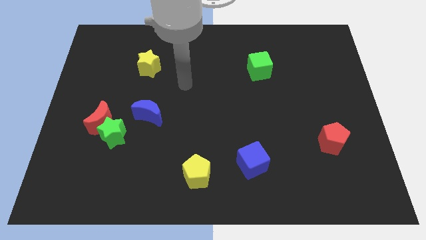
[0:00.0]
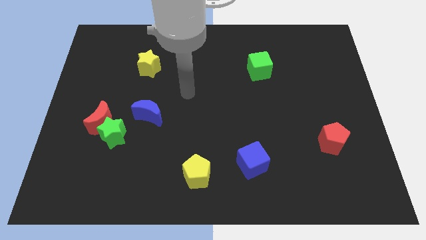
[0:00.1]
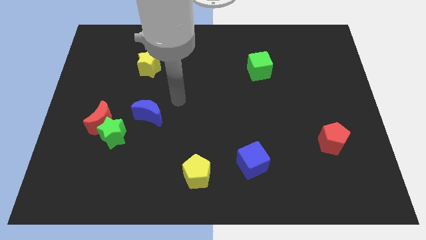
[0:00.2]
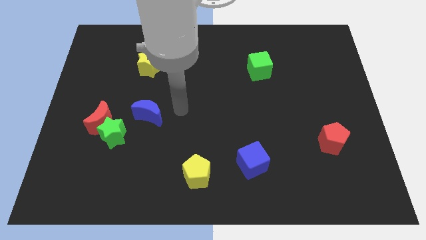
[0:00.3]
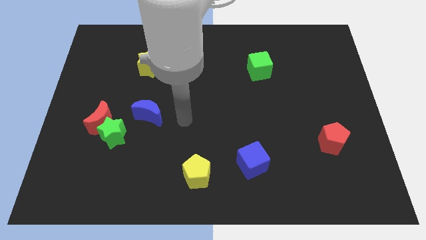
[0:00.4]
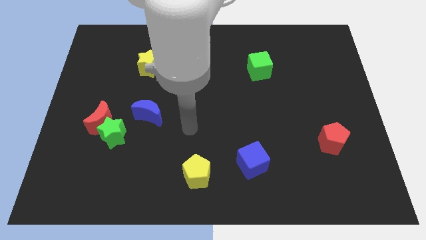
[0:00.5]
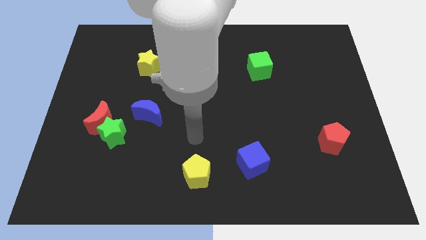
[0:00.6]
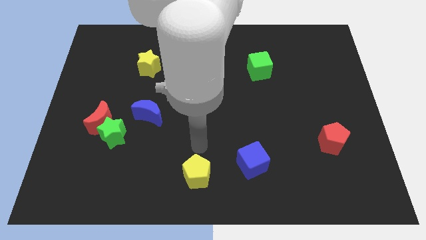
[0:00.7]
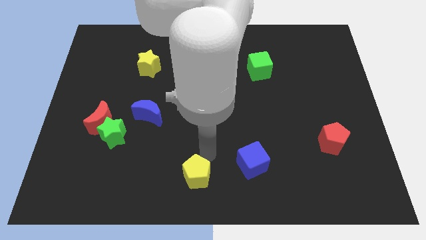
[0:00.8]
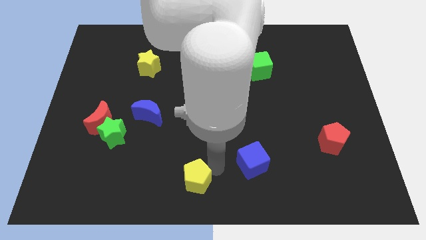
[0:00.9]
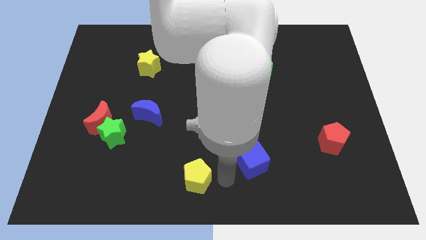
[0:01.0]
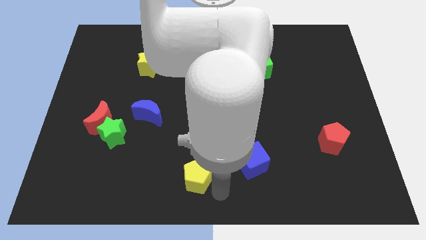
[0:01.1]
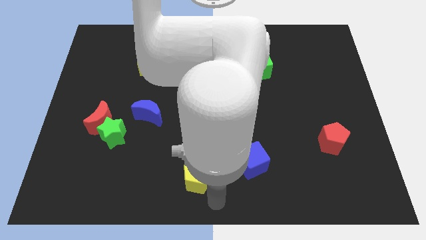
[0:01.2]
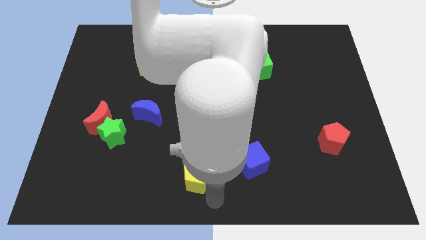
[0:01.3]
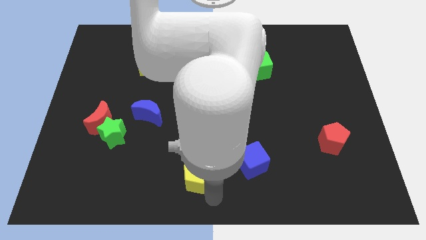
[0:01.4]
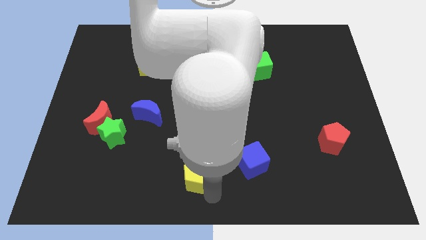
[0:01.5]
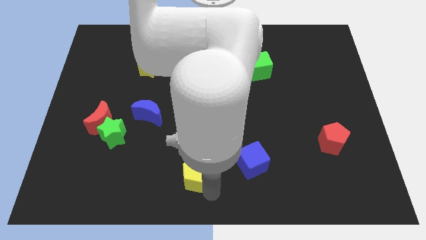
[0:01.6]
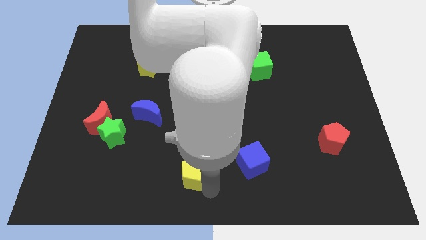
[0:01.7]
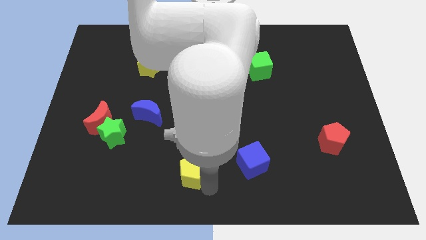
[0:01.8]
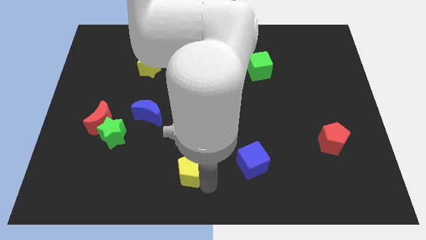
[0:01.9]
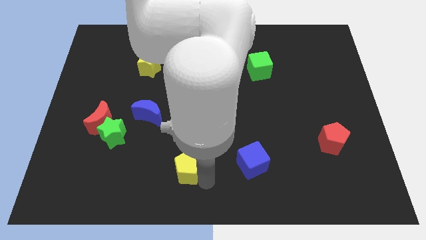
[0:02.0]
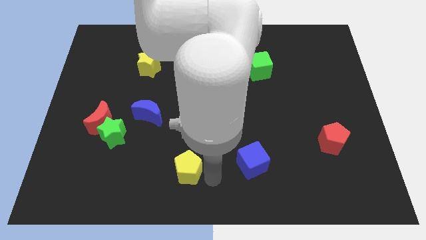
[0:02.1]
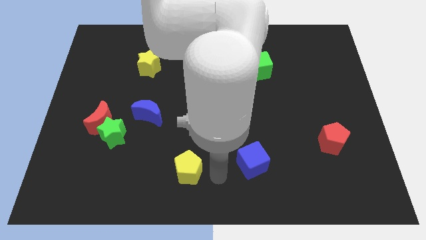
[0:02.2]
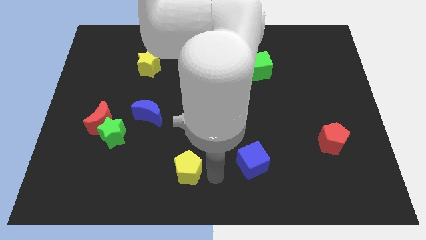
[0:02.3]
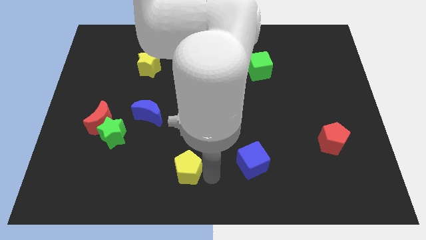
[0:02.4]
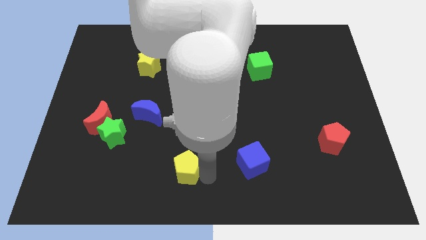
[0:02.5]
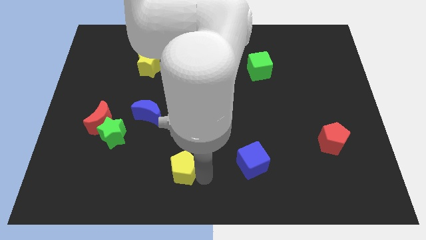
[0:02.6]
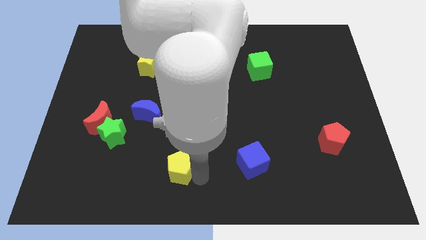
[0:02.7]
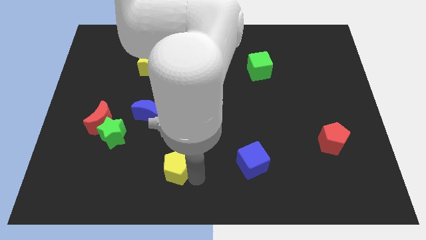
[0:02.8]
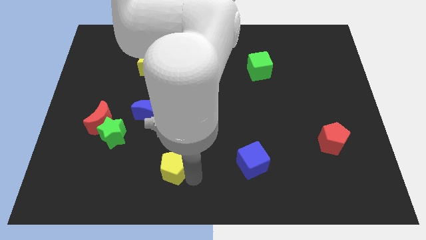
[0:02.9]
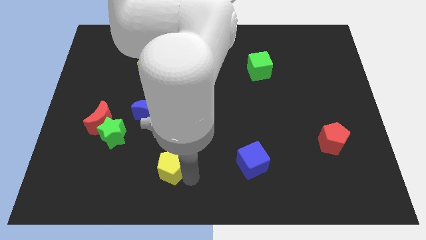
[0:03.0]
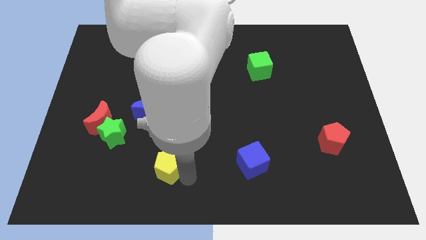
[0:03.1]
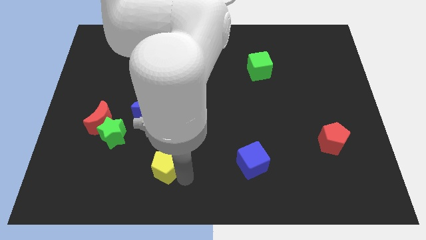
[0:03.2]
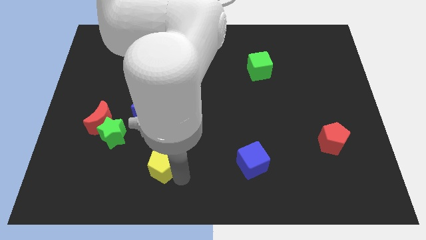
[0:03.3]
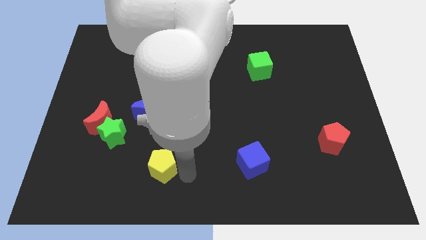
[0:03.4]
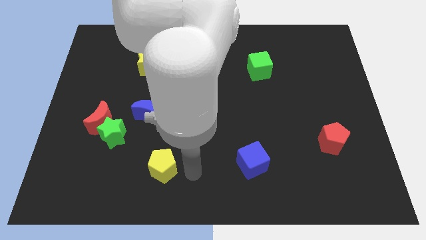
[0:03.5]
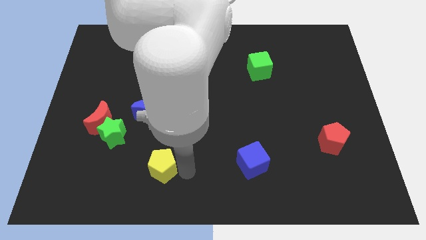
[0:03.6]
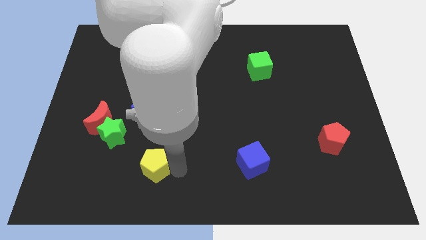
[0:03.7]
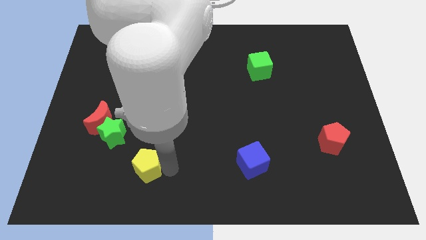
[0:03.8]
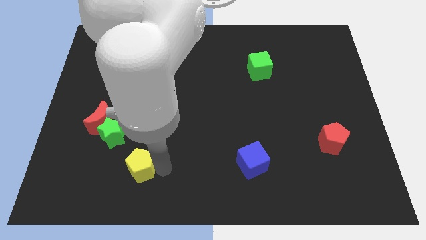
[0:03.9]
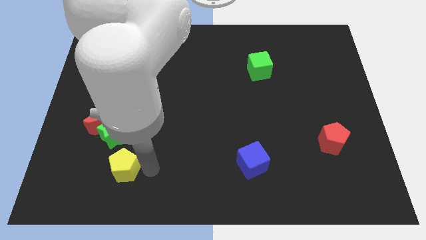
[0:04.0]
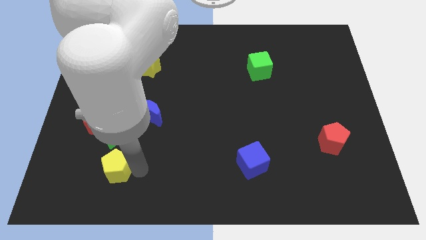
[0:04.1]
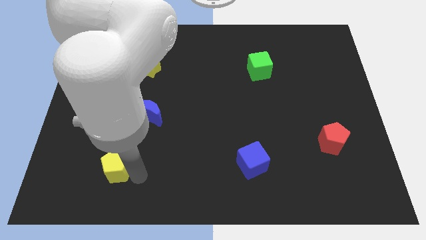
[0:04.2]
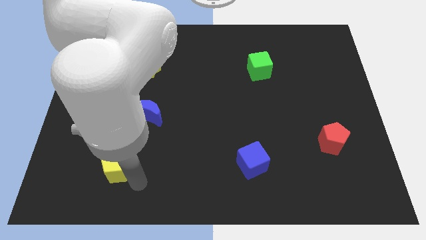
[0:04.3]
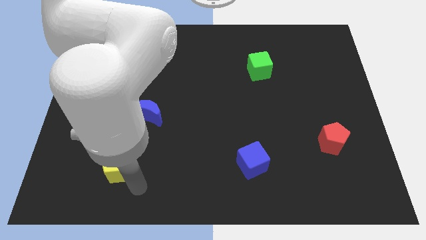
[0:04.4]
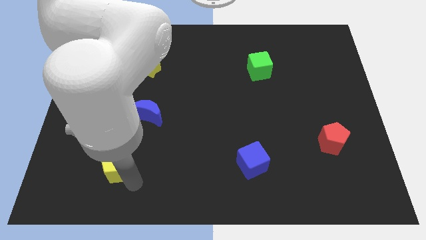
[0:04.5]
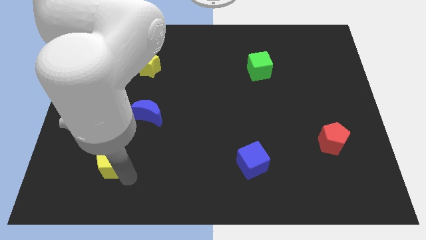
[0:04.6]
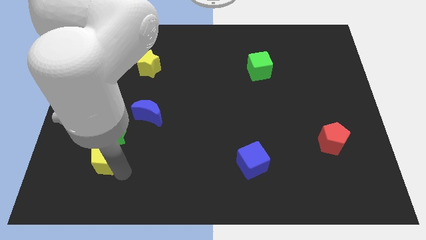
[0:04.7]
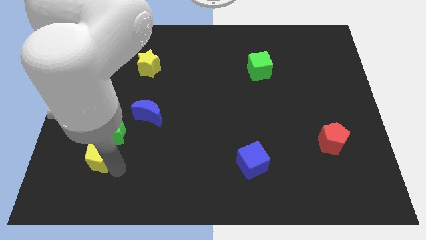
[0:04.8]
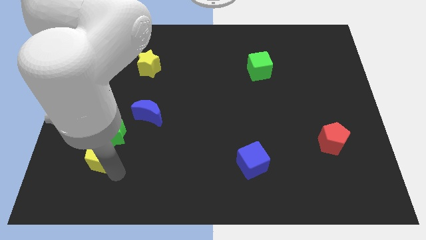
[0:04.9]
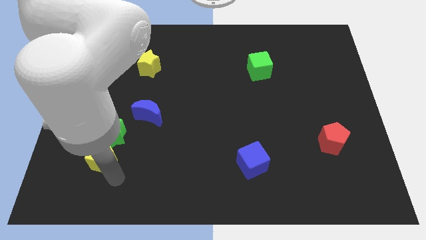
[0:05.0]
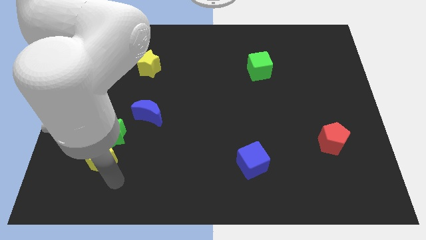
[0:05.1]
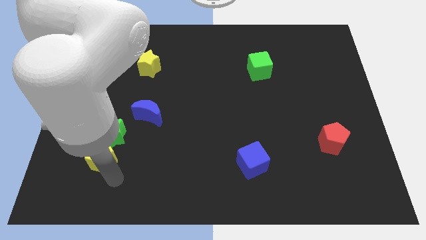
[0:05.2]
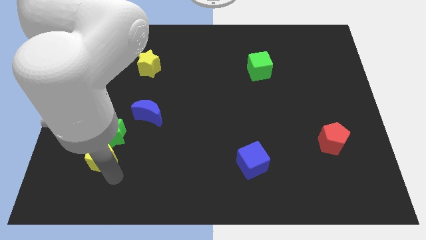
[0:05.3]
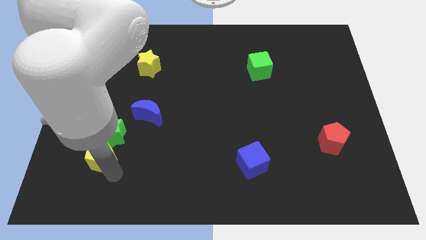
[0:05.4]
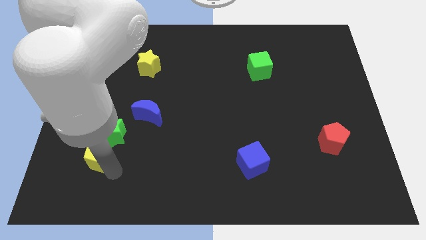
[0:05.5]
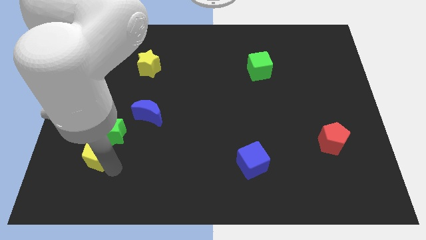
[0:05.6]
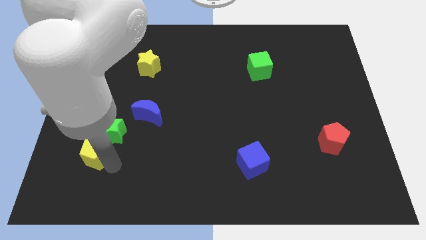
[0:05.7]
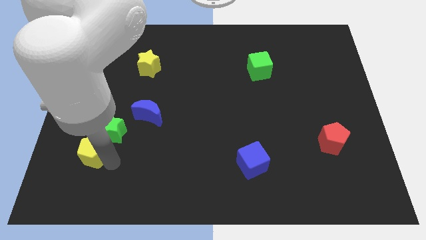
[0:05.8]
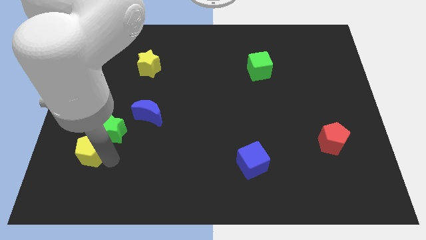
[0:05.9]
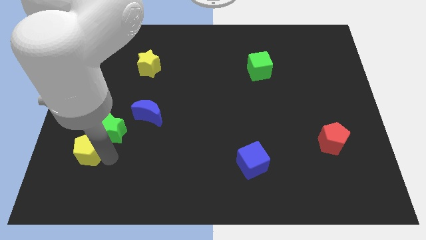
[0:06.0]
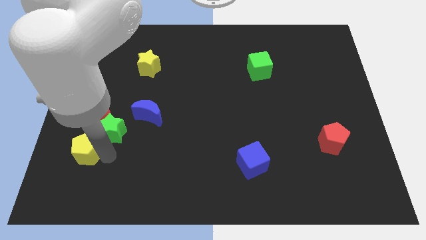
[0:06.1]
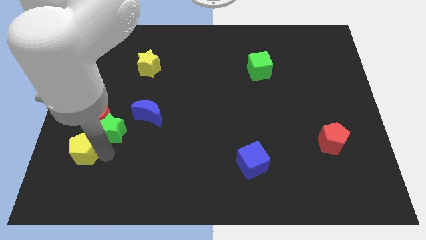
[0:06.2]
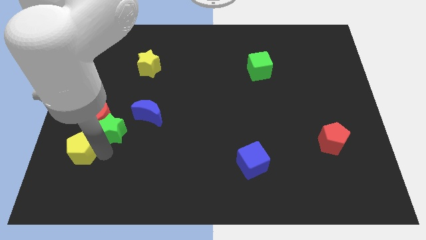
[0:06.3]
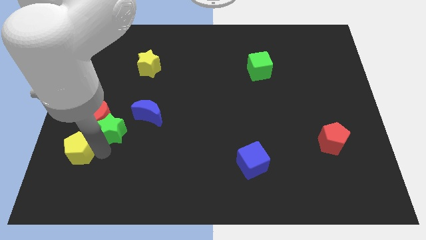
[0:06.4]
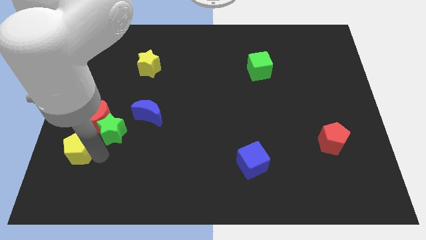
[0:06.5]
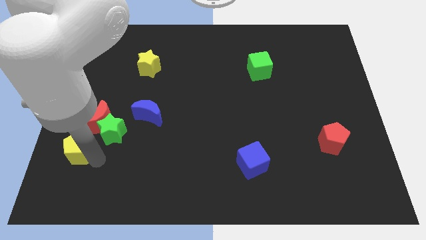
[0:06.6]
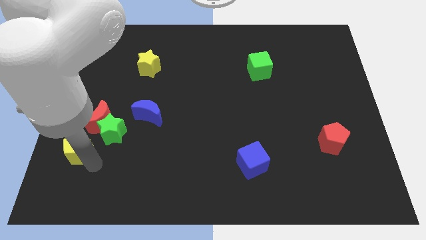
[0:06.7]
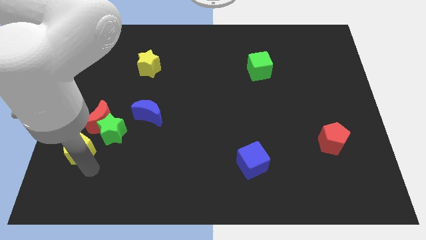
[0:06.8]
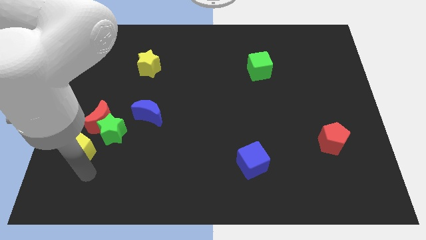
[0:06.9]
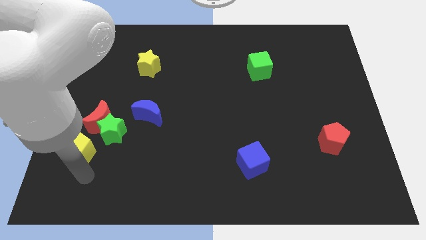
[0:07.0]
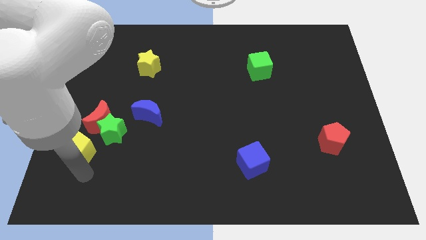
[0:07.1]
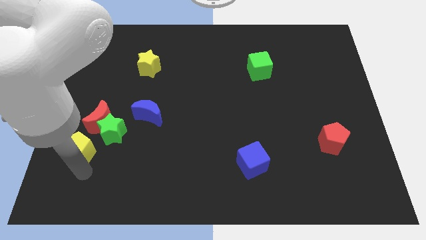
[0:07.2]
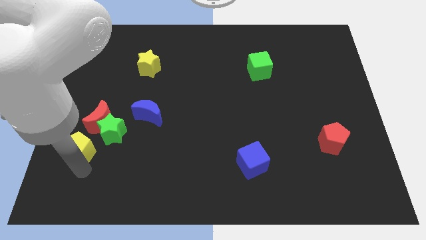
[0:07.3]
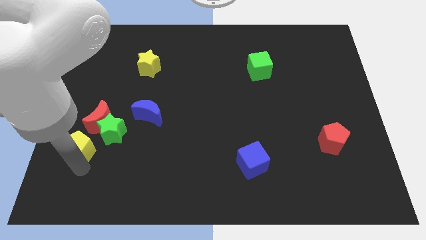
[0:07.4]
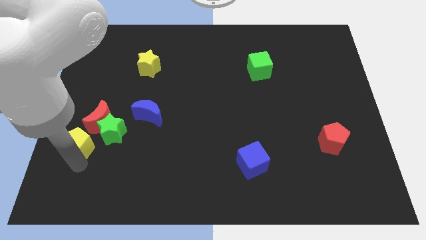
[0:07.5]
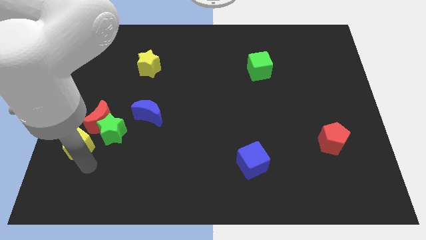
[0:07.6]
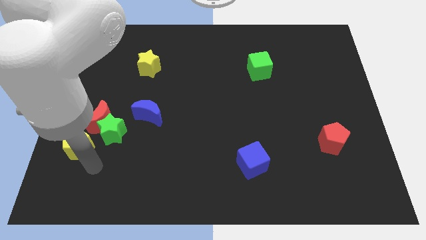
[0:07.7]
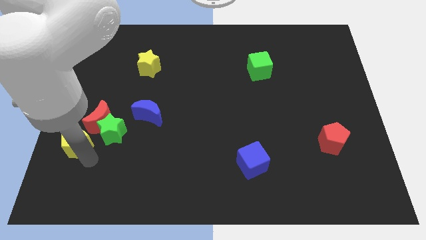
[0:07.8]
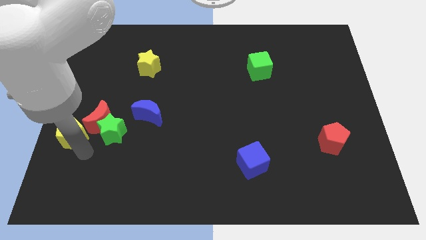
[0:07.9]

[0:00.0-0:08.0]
slide the yellow pentagon to the left side of the board
